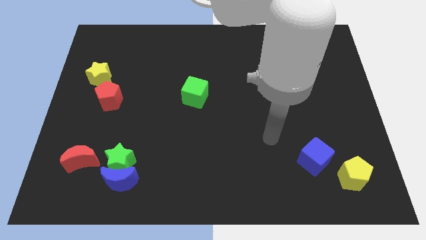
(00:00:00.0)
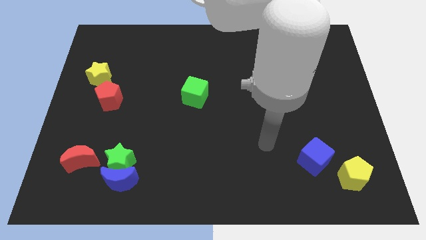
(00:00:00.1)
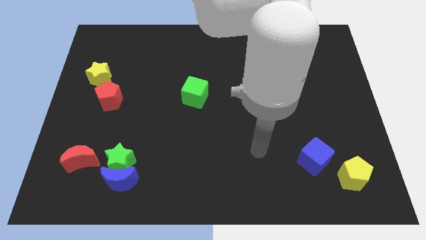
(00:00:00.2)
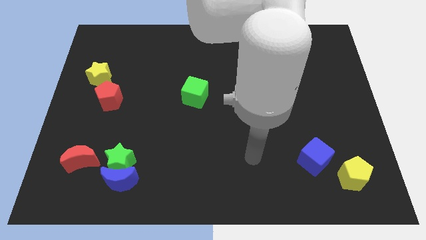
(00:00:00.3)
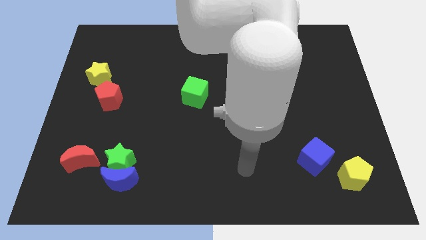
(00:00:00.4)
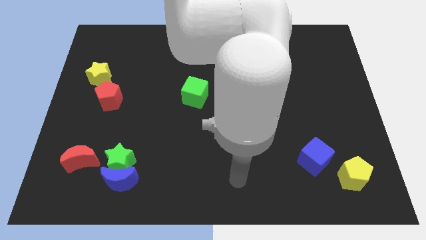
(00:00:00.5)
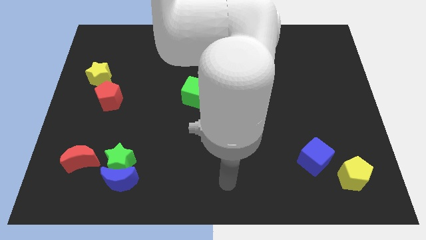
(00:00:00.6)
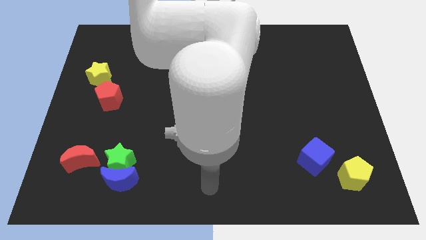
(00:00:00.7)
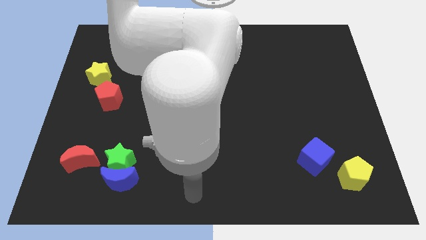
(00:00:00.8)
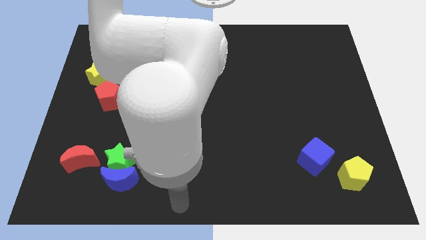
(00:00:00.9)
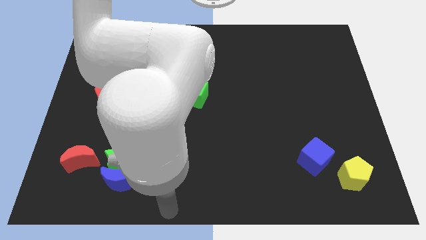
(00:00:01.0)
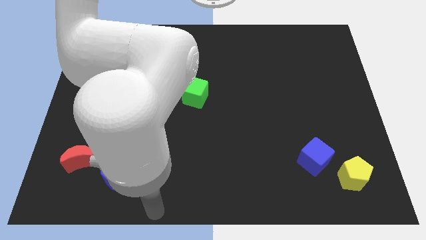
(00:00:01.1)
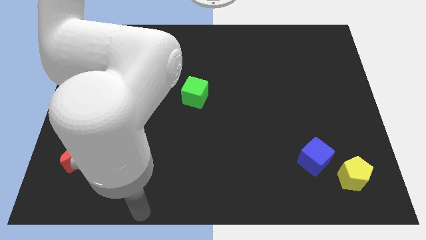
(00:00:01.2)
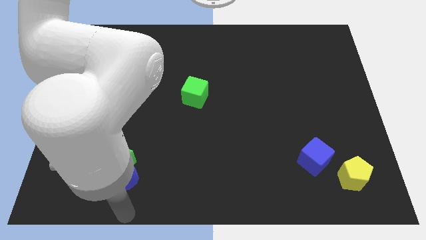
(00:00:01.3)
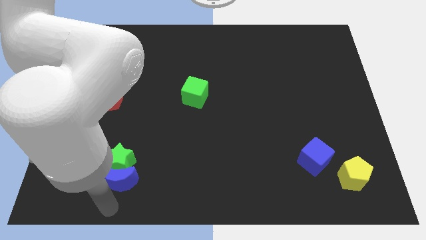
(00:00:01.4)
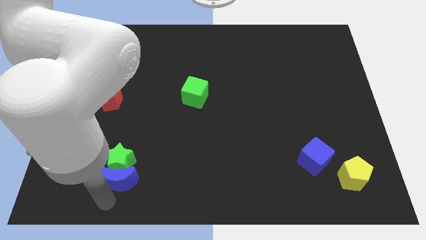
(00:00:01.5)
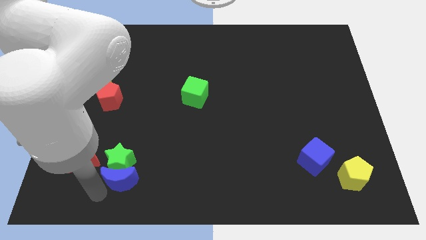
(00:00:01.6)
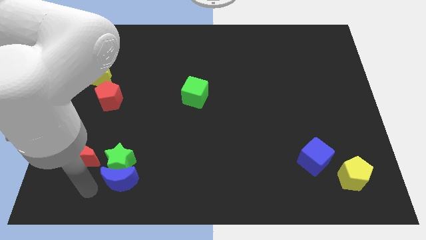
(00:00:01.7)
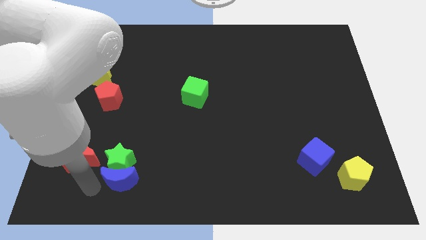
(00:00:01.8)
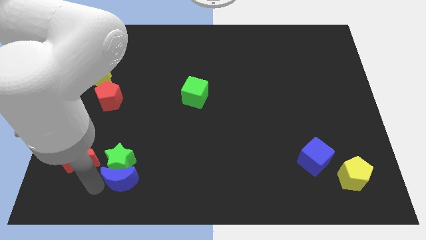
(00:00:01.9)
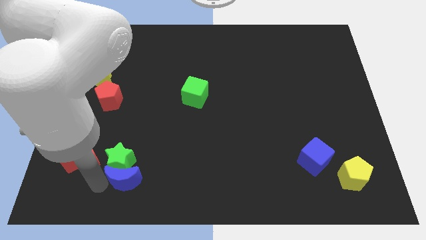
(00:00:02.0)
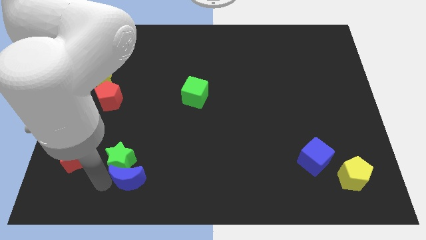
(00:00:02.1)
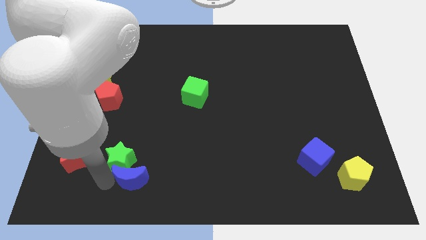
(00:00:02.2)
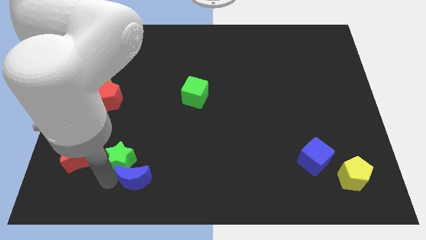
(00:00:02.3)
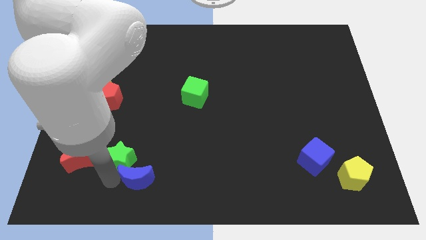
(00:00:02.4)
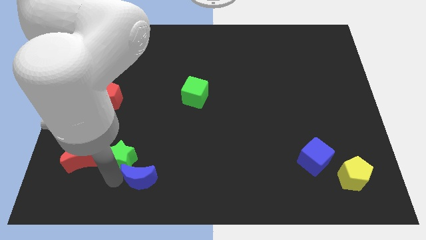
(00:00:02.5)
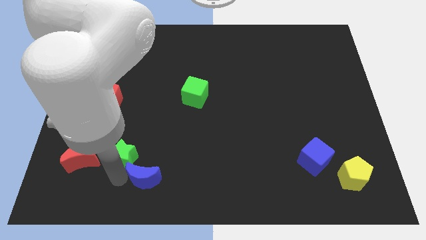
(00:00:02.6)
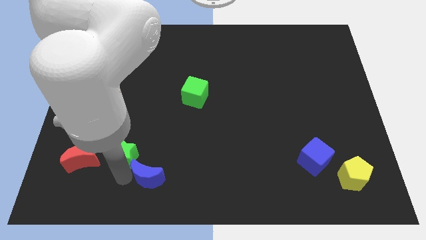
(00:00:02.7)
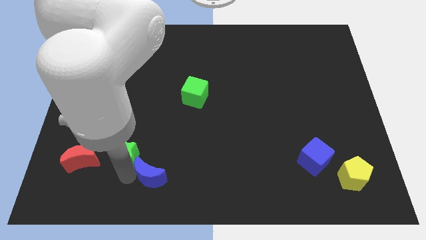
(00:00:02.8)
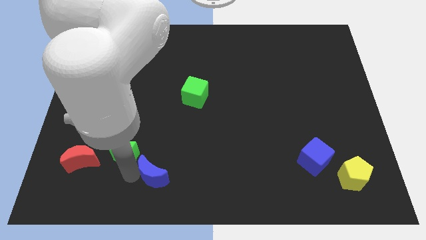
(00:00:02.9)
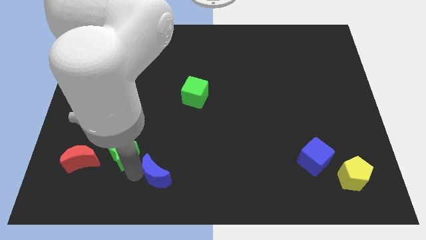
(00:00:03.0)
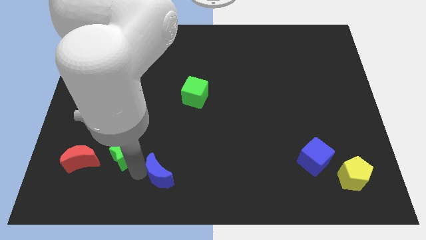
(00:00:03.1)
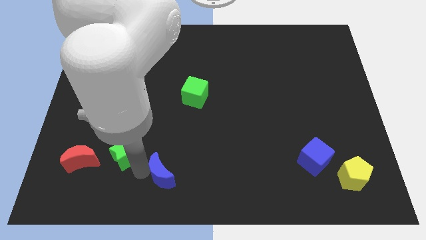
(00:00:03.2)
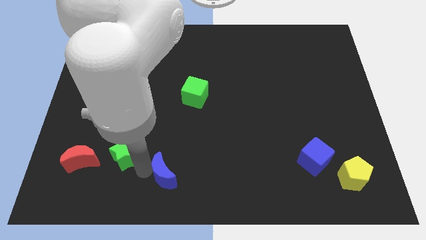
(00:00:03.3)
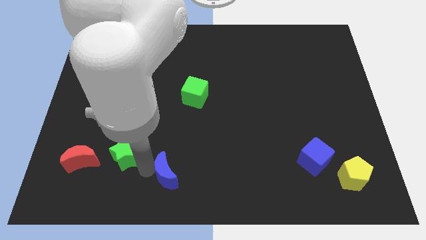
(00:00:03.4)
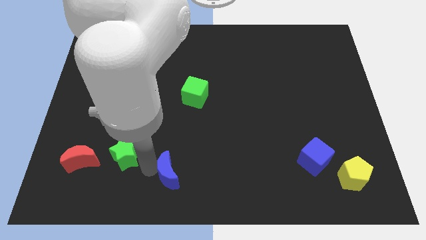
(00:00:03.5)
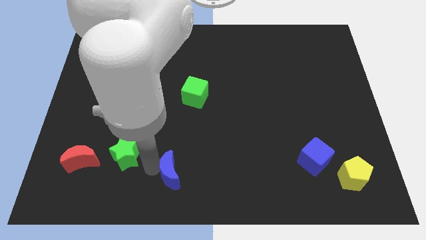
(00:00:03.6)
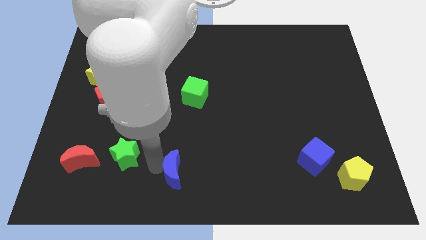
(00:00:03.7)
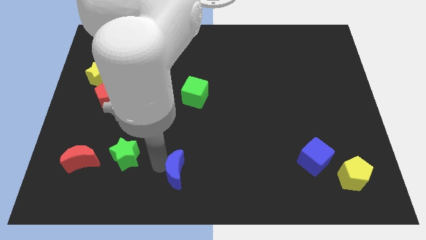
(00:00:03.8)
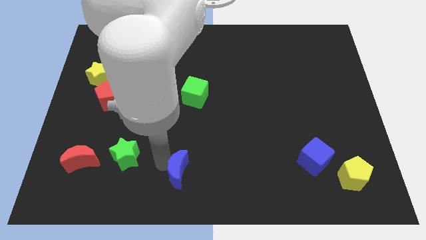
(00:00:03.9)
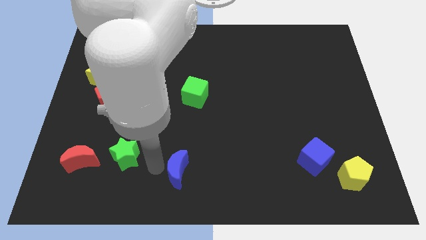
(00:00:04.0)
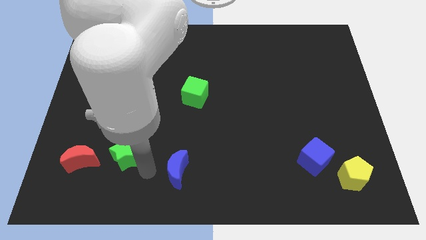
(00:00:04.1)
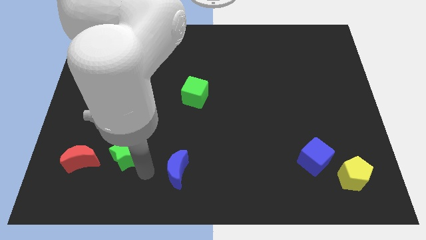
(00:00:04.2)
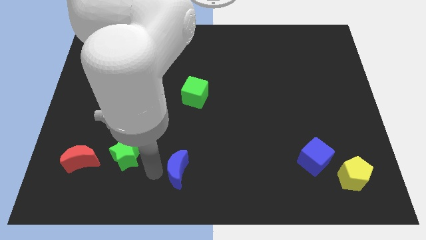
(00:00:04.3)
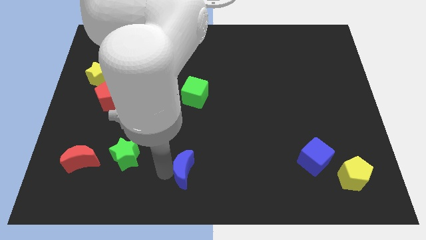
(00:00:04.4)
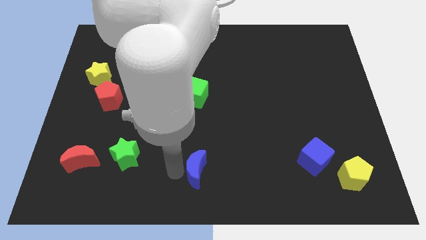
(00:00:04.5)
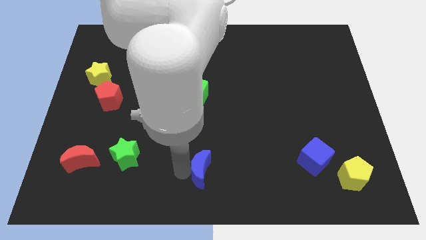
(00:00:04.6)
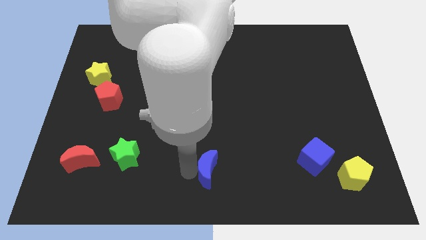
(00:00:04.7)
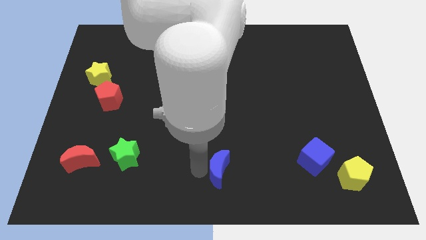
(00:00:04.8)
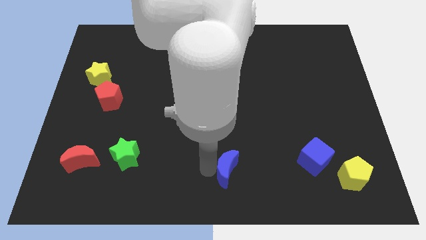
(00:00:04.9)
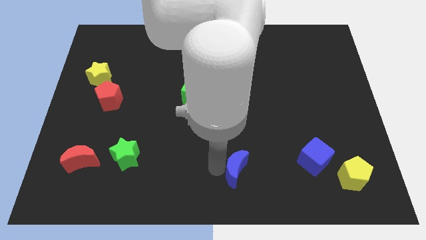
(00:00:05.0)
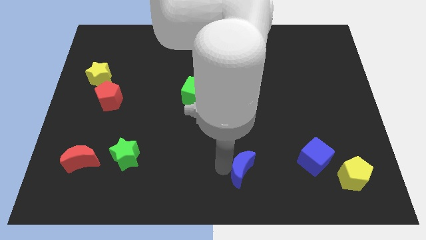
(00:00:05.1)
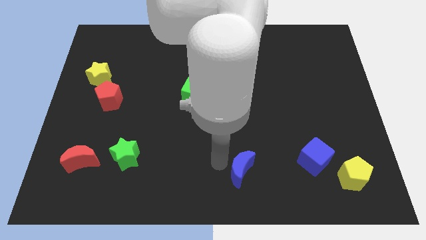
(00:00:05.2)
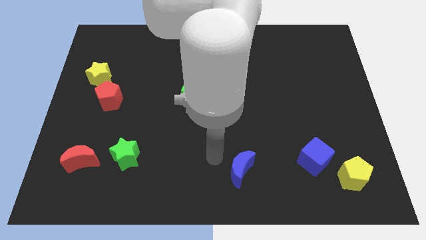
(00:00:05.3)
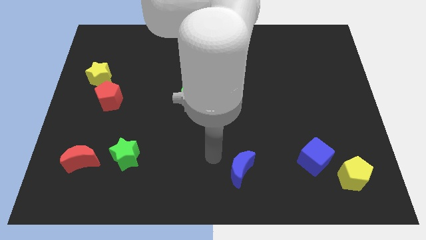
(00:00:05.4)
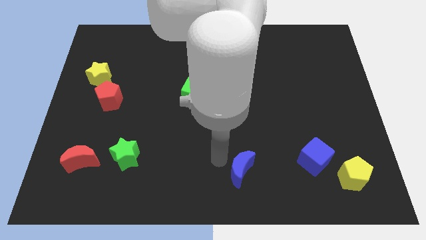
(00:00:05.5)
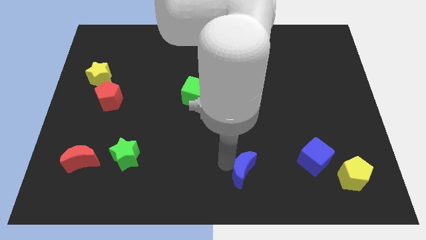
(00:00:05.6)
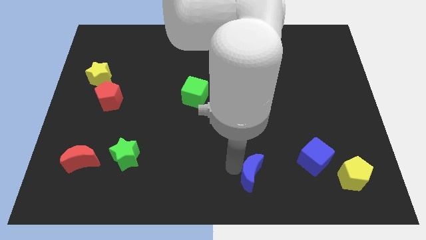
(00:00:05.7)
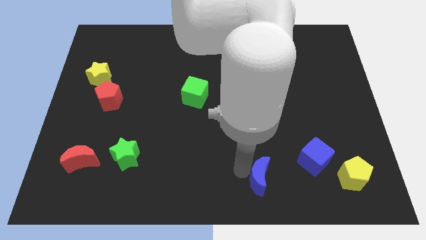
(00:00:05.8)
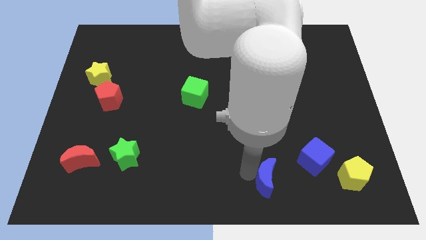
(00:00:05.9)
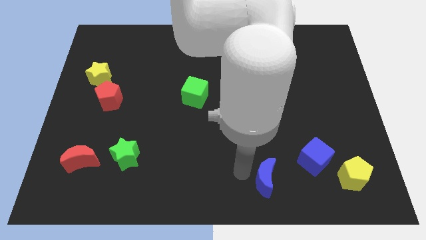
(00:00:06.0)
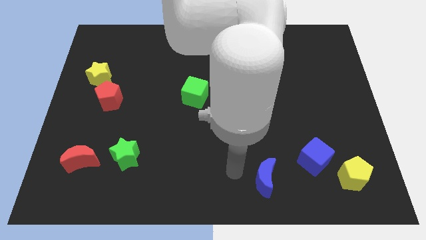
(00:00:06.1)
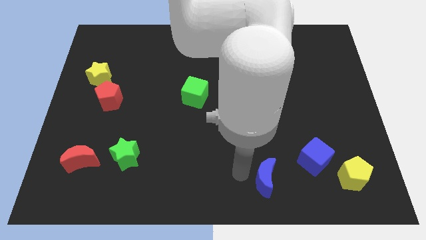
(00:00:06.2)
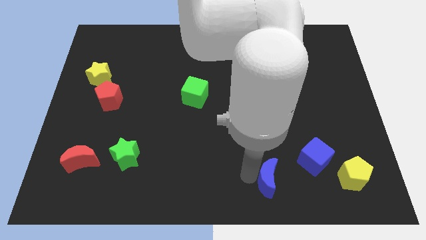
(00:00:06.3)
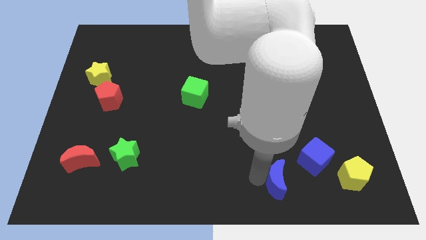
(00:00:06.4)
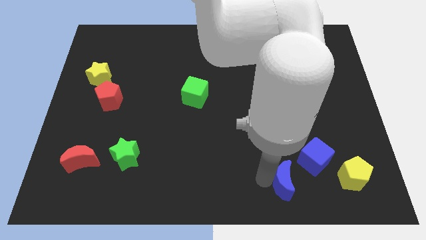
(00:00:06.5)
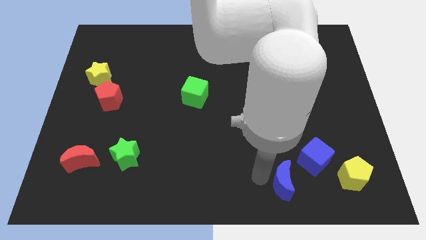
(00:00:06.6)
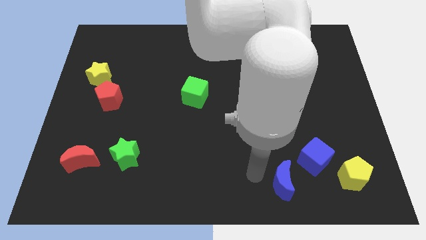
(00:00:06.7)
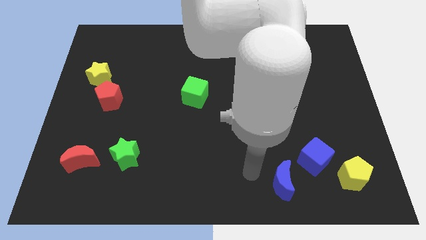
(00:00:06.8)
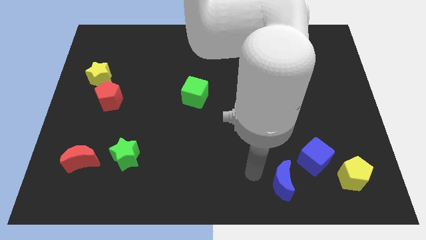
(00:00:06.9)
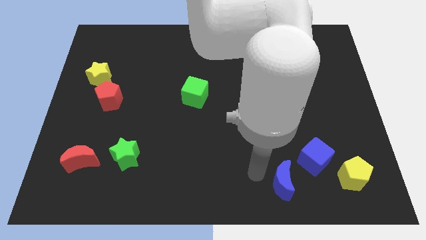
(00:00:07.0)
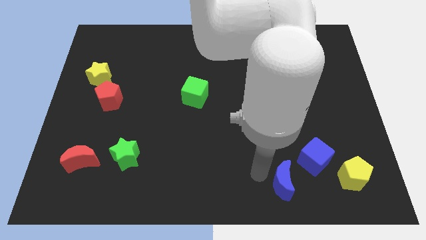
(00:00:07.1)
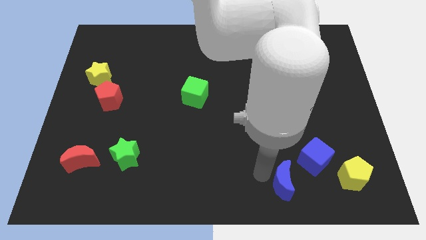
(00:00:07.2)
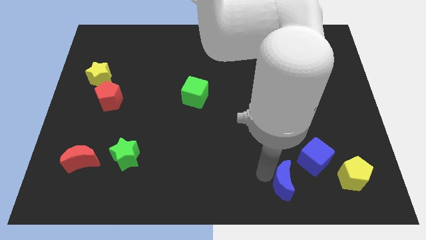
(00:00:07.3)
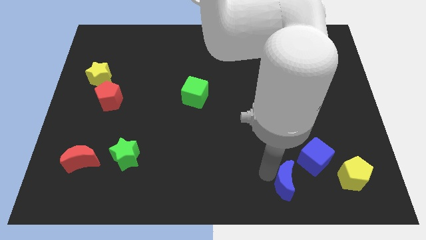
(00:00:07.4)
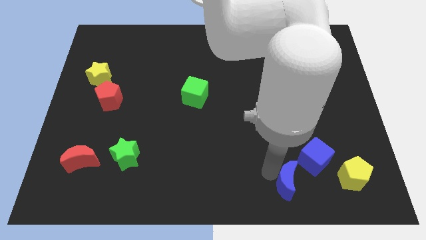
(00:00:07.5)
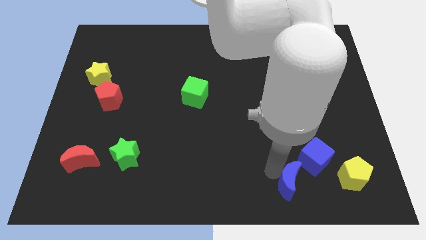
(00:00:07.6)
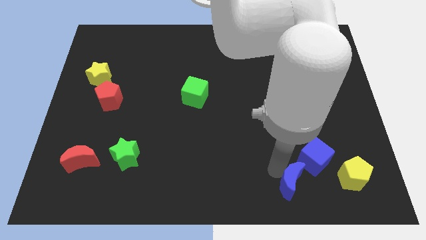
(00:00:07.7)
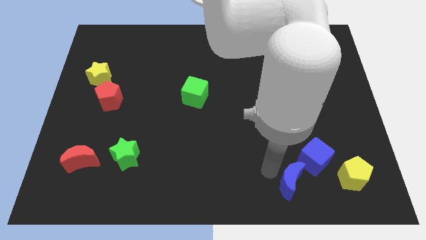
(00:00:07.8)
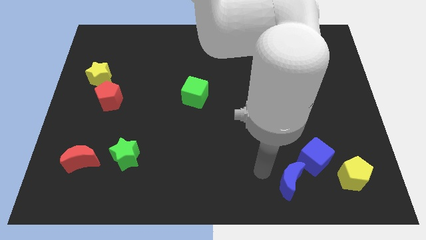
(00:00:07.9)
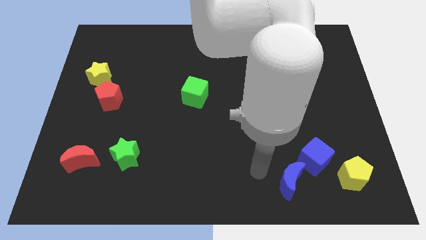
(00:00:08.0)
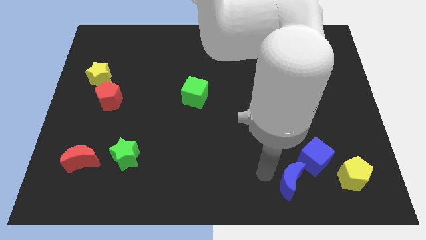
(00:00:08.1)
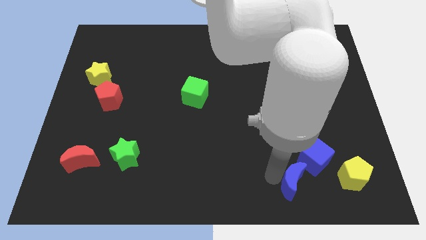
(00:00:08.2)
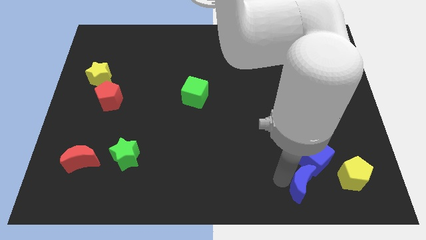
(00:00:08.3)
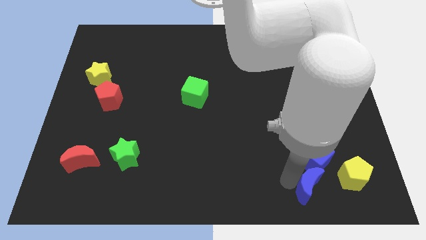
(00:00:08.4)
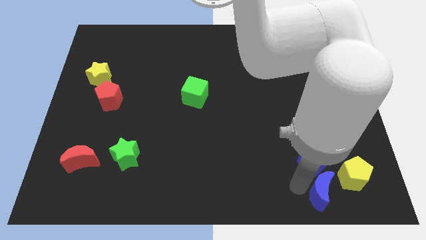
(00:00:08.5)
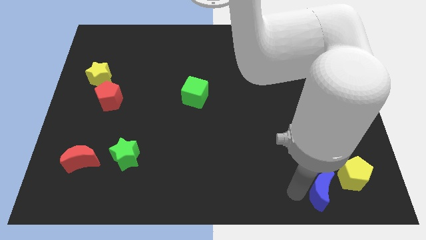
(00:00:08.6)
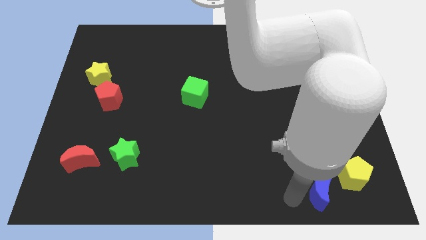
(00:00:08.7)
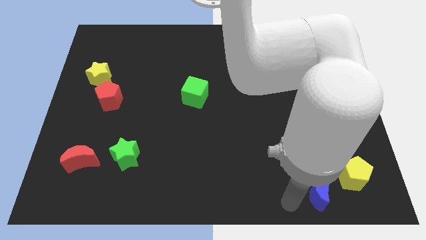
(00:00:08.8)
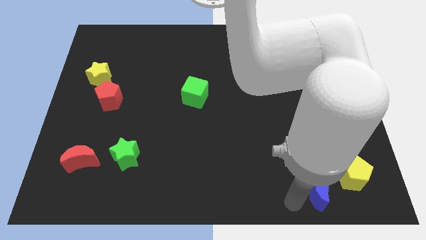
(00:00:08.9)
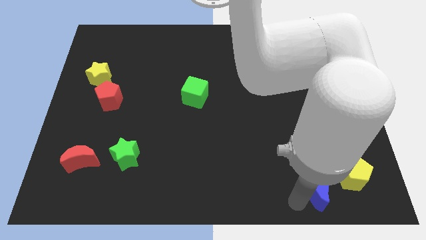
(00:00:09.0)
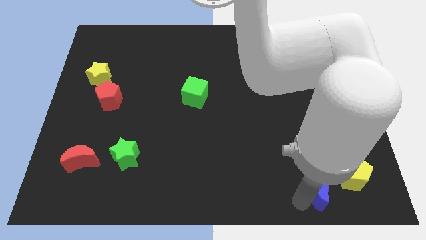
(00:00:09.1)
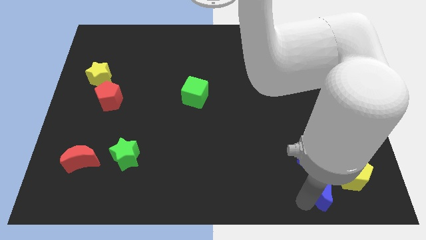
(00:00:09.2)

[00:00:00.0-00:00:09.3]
slide the blue moon to the bottom right of the blue cube
